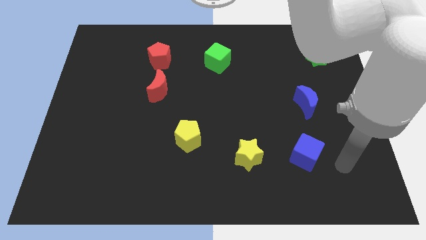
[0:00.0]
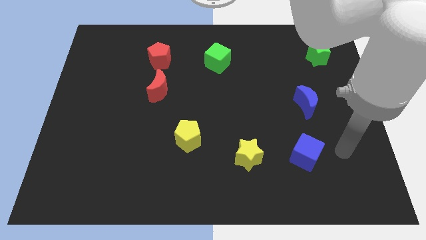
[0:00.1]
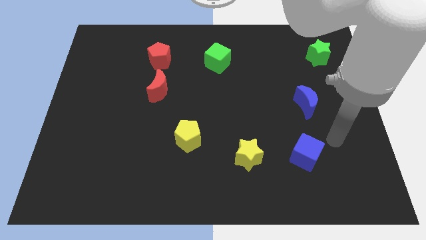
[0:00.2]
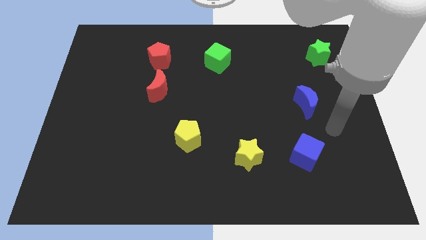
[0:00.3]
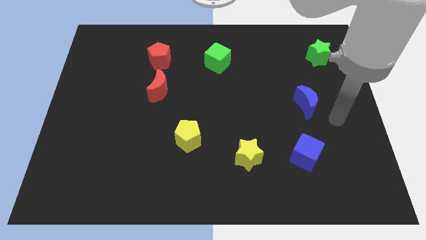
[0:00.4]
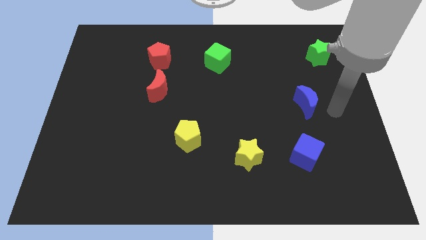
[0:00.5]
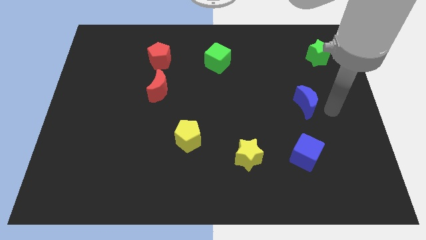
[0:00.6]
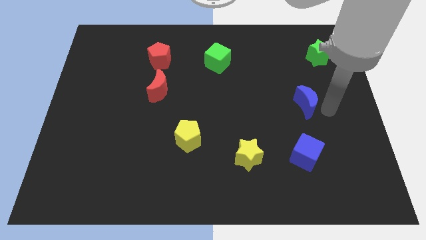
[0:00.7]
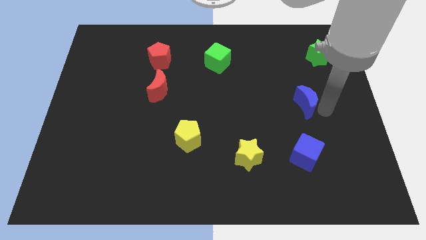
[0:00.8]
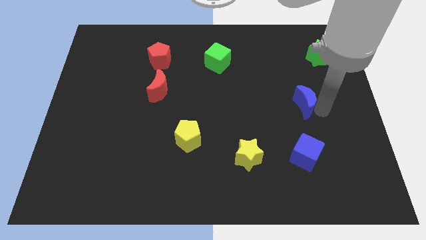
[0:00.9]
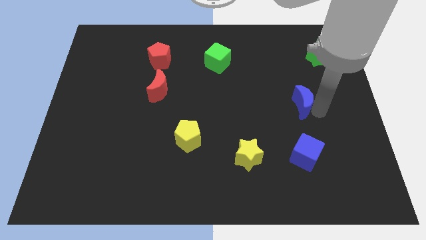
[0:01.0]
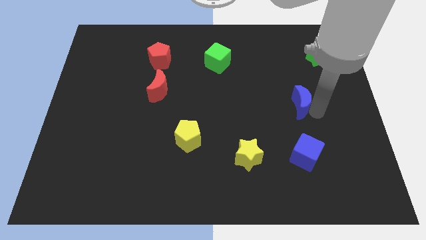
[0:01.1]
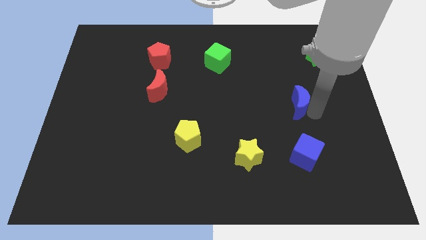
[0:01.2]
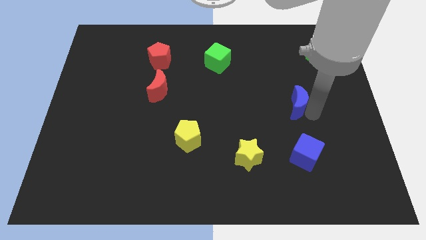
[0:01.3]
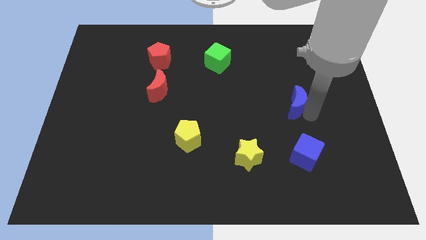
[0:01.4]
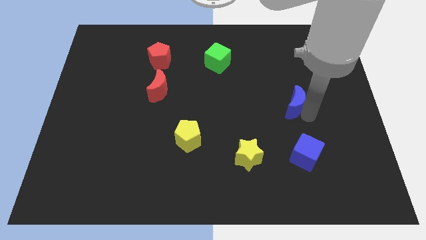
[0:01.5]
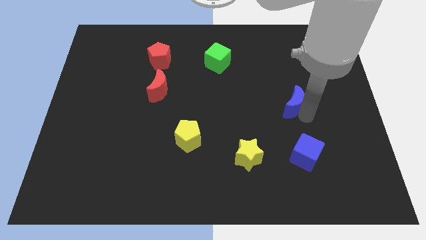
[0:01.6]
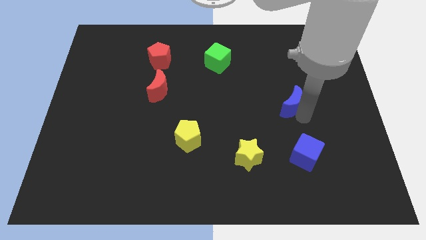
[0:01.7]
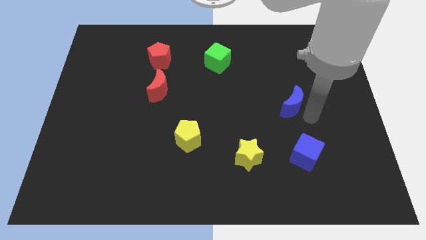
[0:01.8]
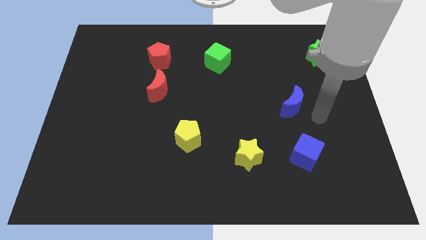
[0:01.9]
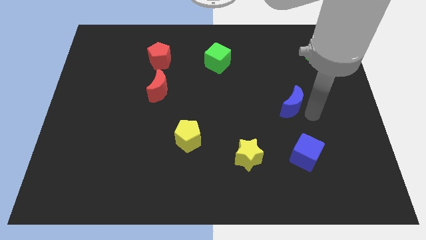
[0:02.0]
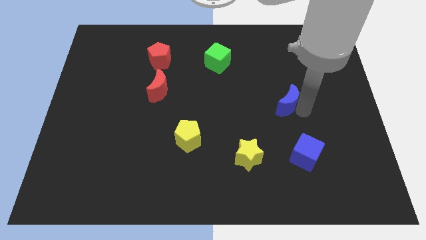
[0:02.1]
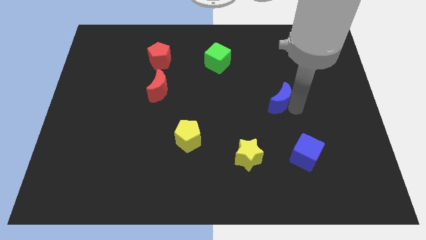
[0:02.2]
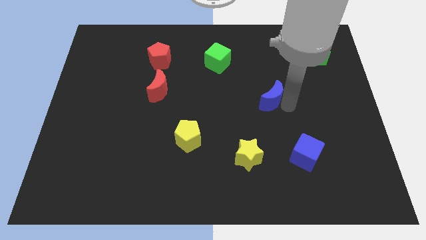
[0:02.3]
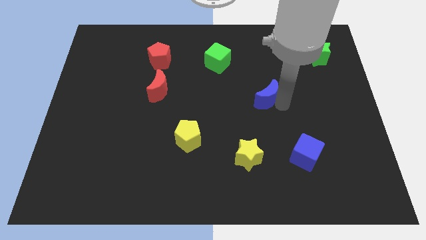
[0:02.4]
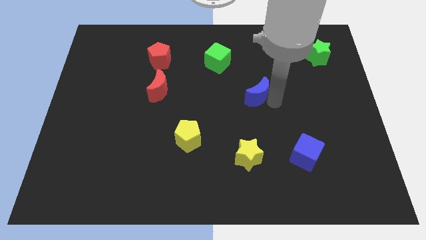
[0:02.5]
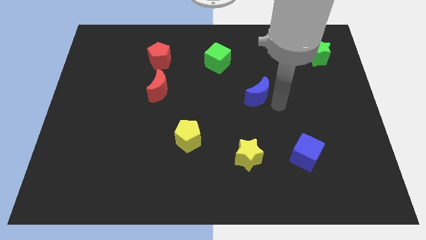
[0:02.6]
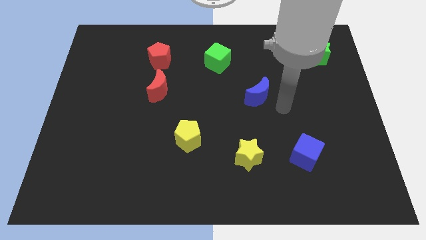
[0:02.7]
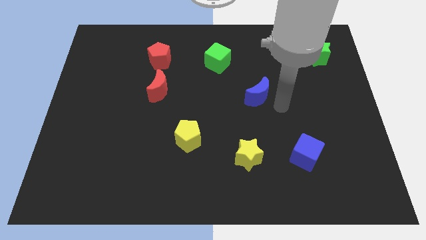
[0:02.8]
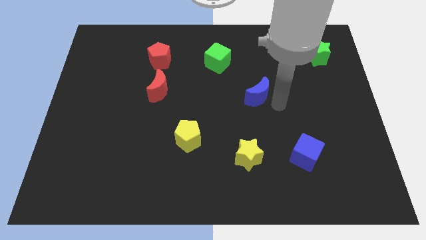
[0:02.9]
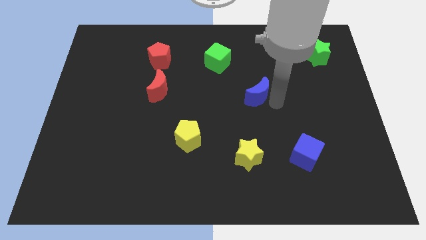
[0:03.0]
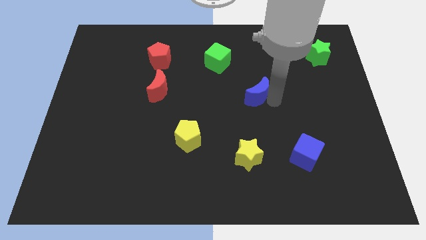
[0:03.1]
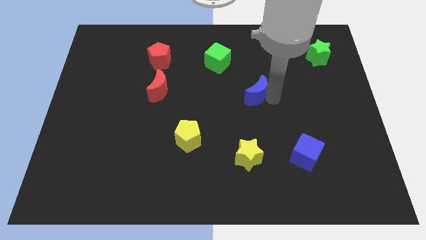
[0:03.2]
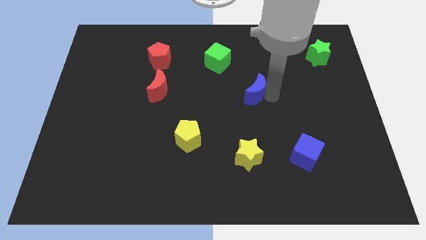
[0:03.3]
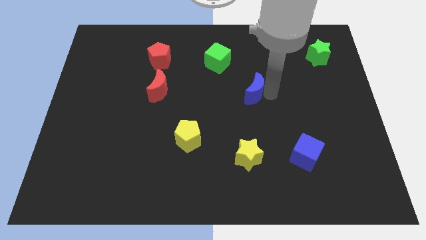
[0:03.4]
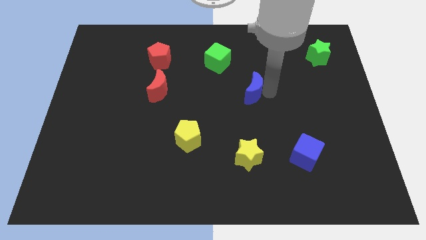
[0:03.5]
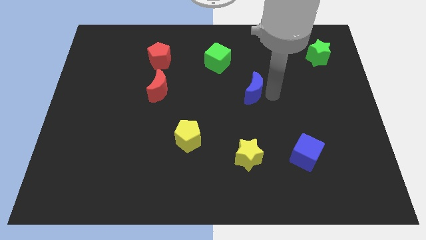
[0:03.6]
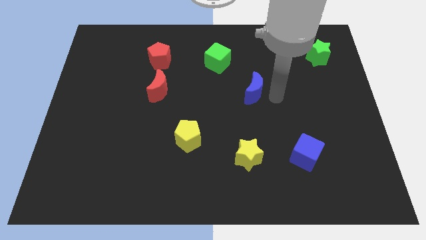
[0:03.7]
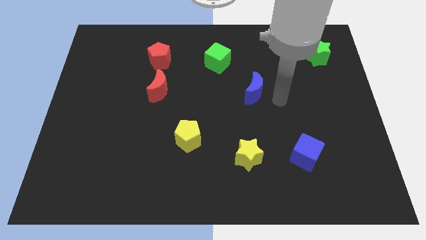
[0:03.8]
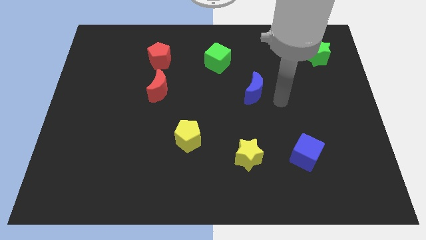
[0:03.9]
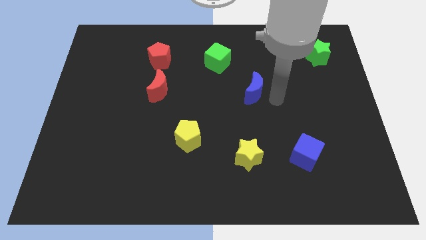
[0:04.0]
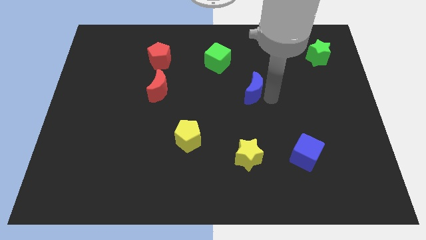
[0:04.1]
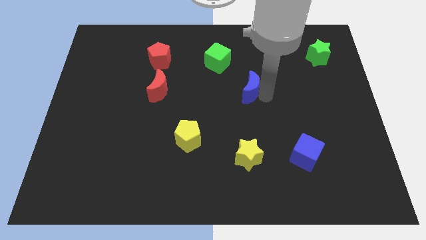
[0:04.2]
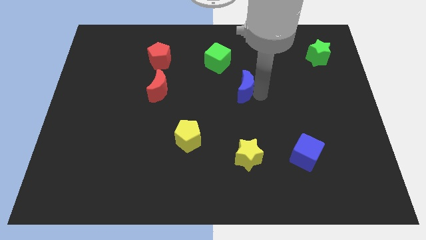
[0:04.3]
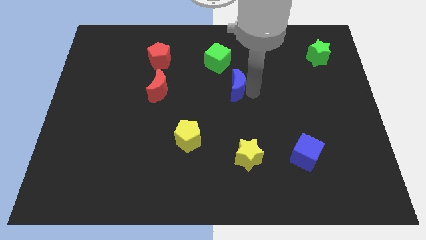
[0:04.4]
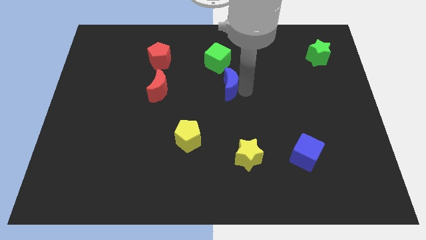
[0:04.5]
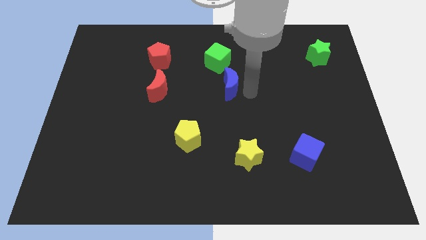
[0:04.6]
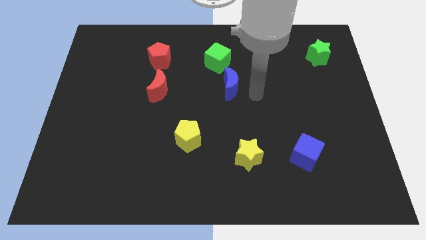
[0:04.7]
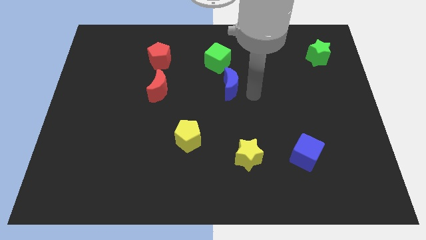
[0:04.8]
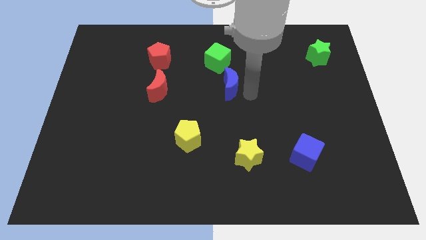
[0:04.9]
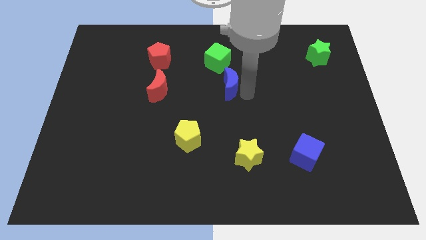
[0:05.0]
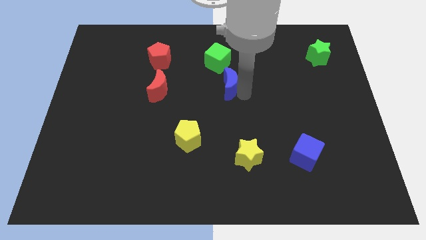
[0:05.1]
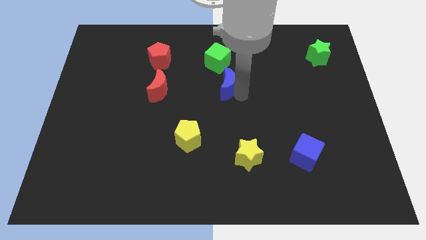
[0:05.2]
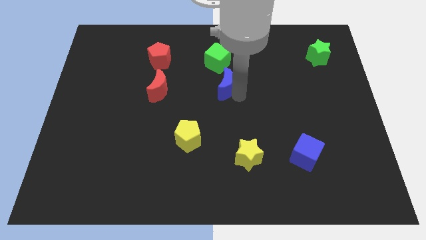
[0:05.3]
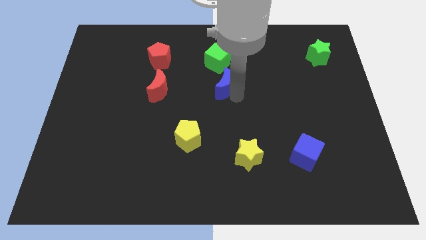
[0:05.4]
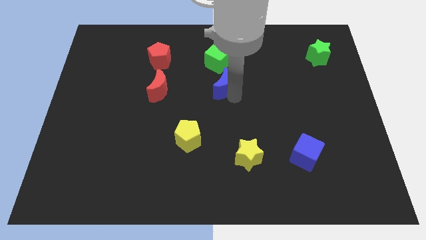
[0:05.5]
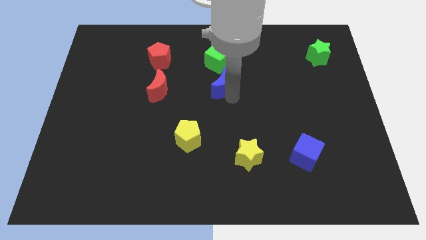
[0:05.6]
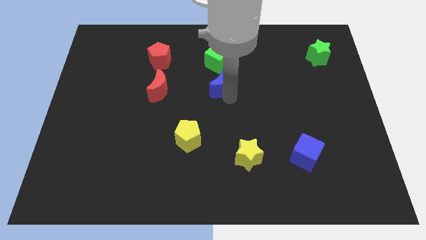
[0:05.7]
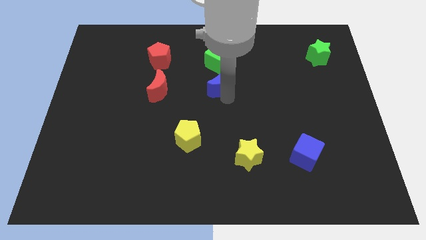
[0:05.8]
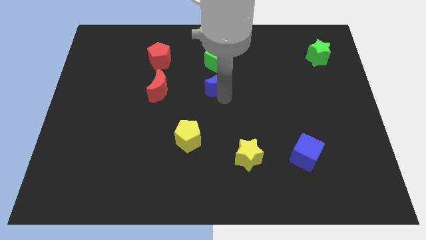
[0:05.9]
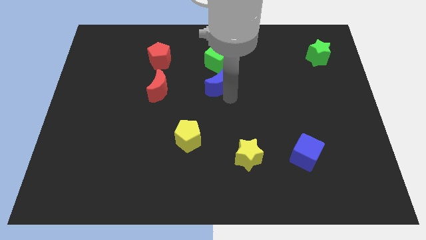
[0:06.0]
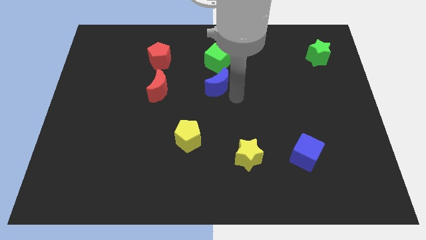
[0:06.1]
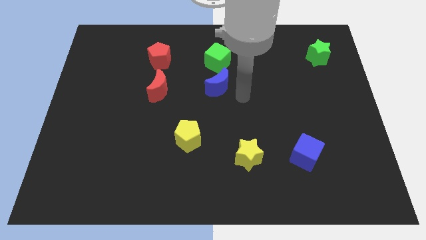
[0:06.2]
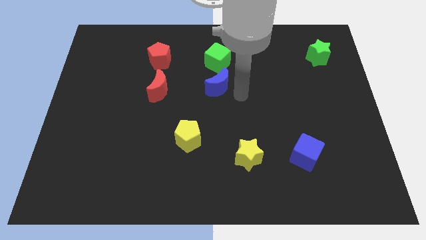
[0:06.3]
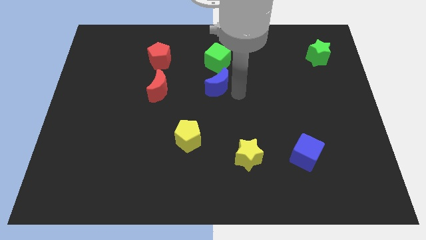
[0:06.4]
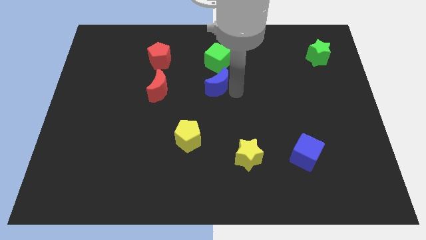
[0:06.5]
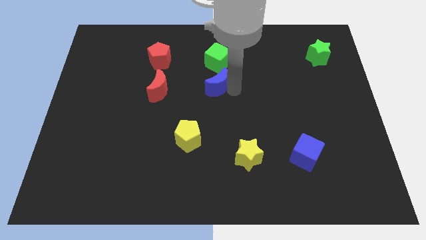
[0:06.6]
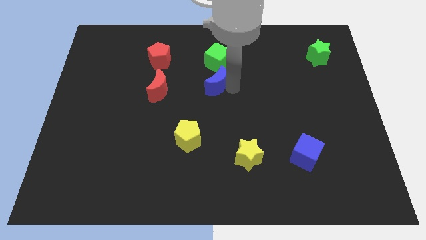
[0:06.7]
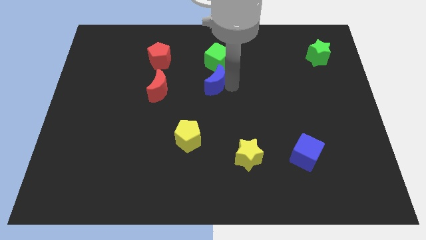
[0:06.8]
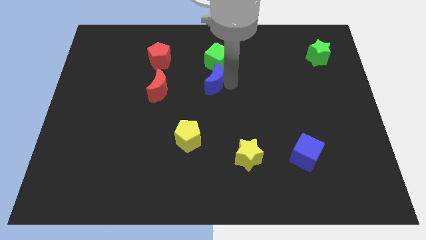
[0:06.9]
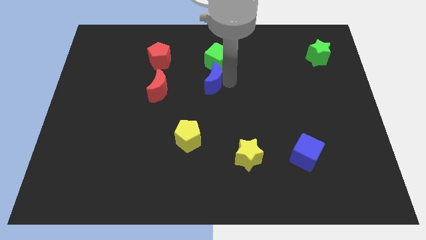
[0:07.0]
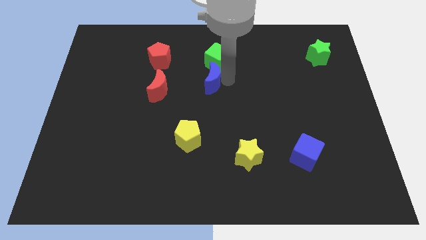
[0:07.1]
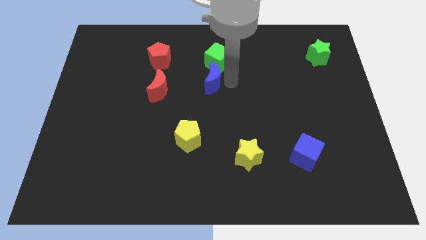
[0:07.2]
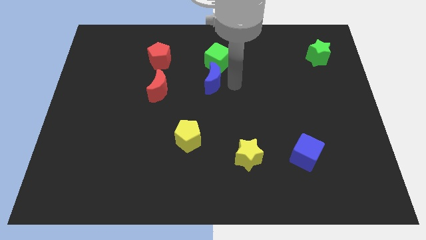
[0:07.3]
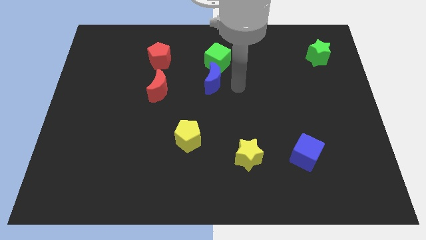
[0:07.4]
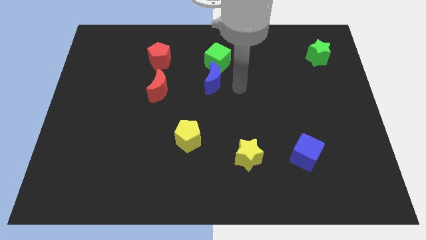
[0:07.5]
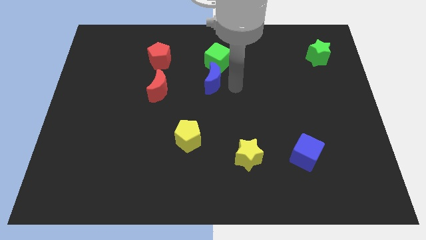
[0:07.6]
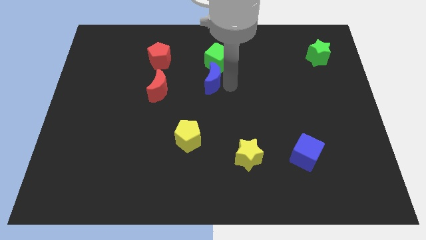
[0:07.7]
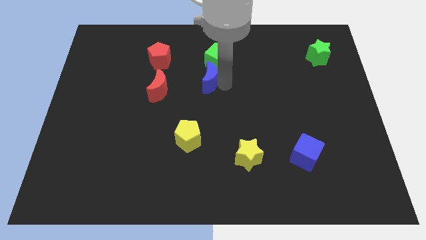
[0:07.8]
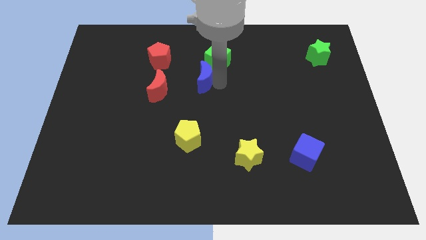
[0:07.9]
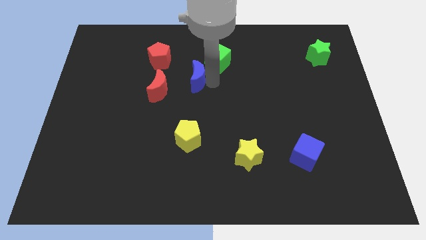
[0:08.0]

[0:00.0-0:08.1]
push the blue moon diagonally down and to the right of the red pentagon
